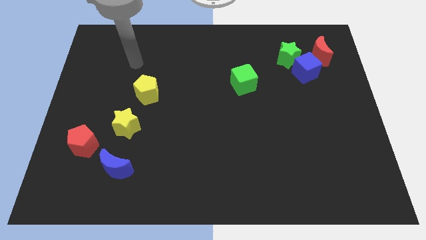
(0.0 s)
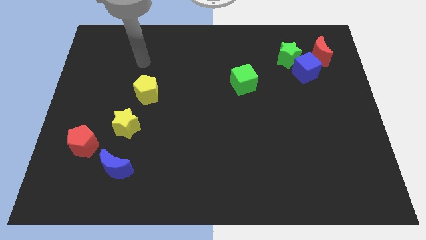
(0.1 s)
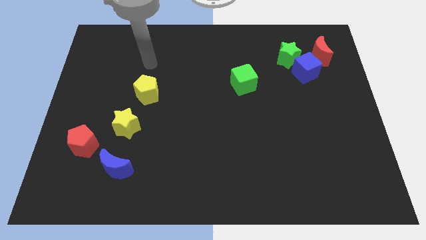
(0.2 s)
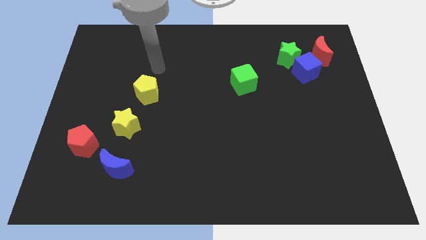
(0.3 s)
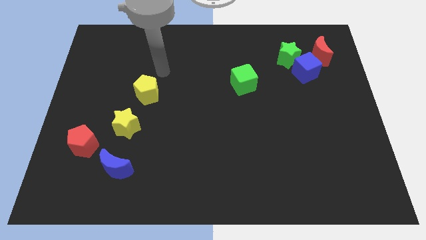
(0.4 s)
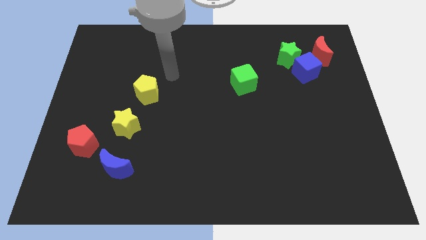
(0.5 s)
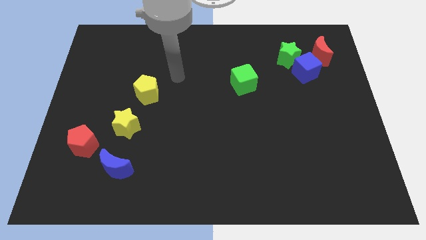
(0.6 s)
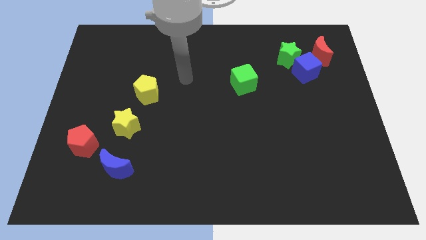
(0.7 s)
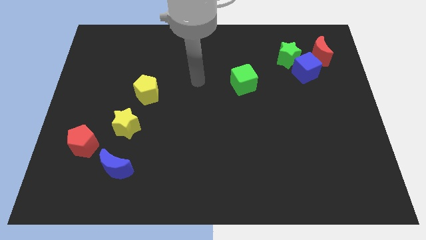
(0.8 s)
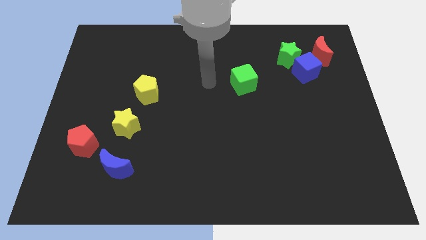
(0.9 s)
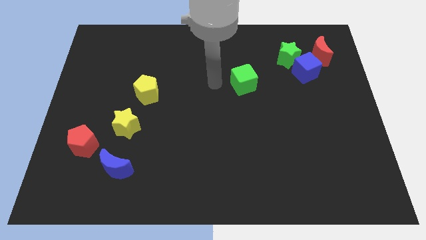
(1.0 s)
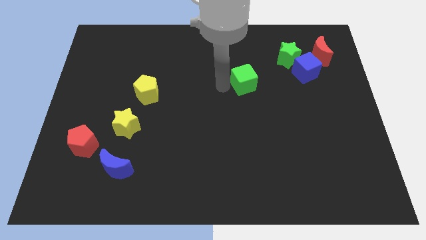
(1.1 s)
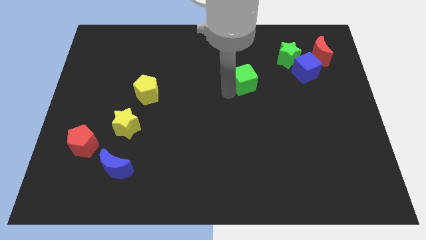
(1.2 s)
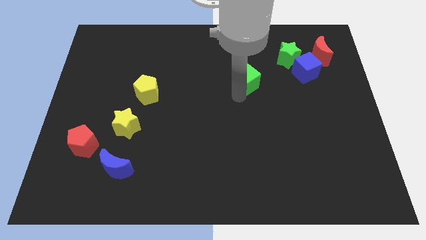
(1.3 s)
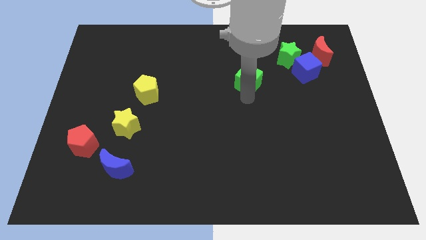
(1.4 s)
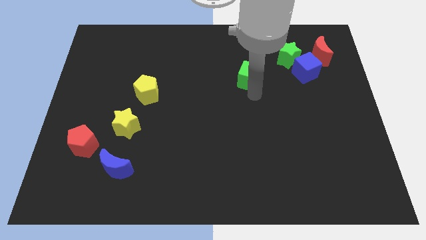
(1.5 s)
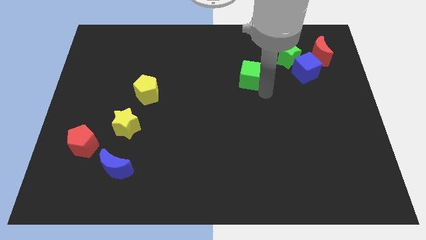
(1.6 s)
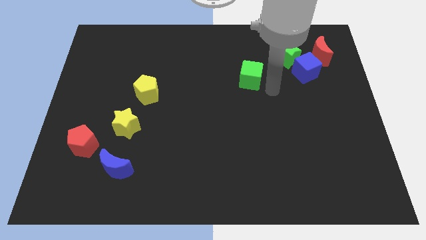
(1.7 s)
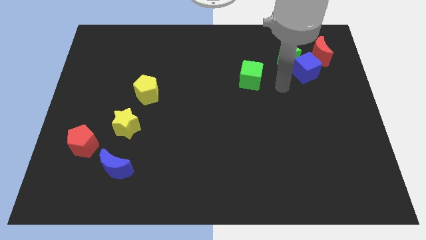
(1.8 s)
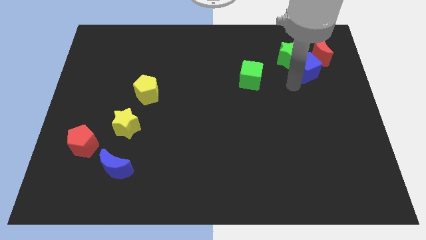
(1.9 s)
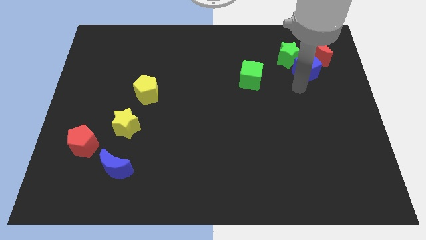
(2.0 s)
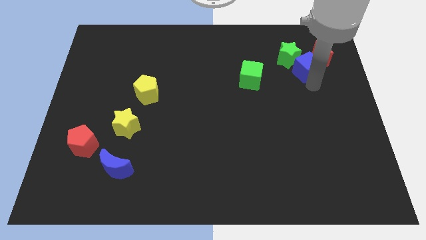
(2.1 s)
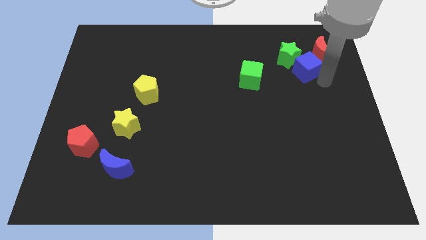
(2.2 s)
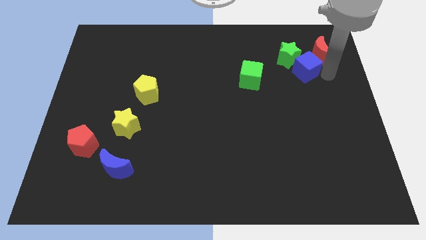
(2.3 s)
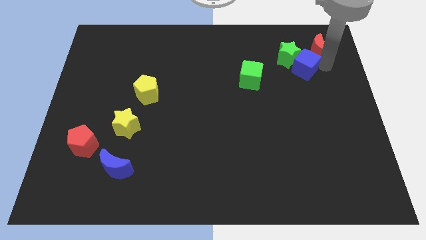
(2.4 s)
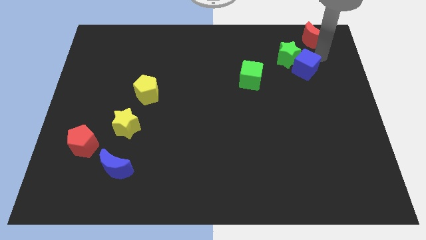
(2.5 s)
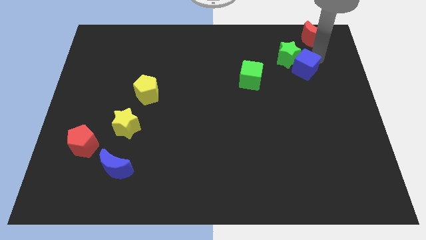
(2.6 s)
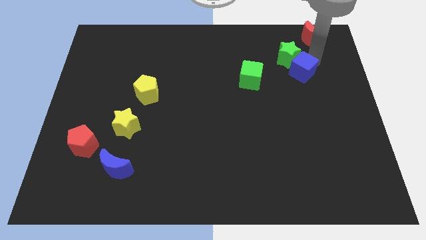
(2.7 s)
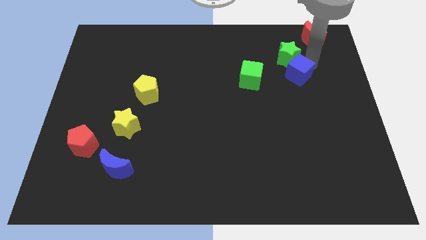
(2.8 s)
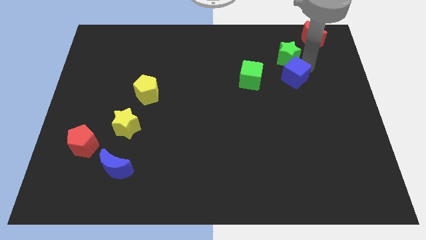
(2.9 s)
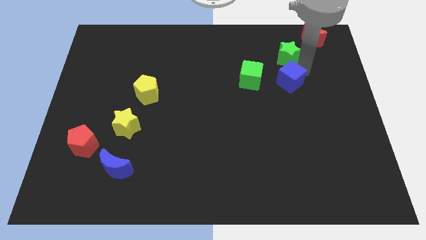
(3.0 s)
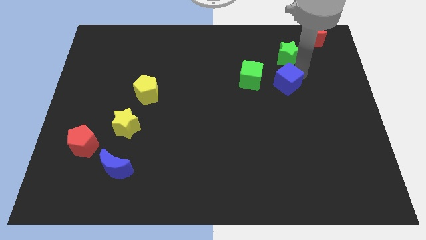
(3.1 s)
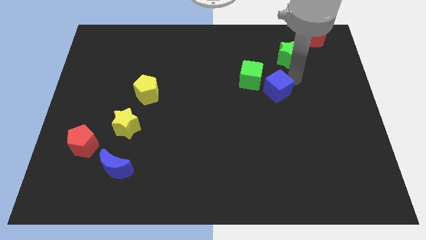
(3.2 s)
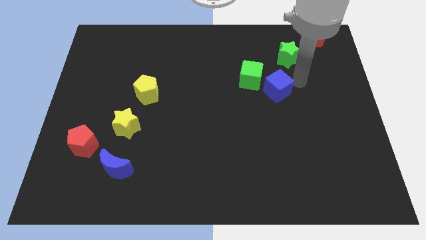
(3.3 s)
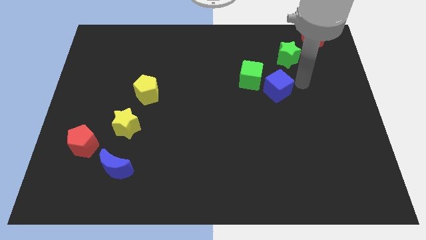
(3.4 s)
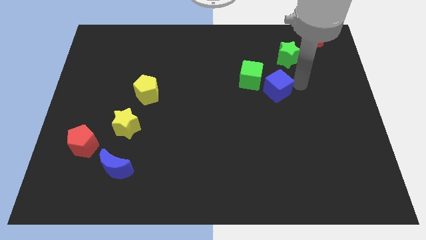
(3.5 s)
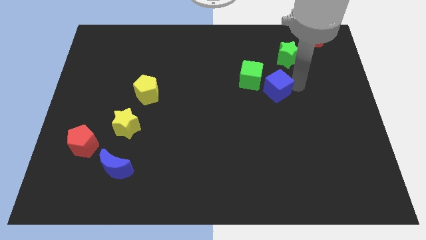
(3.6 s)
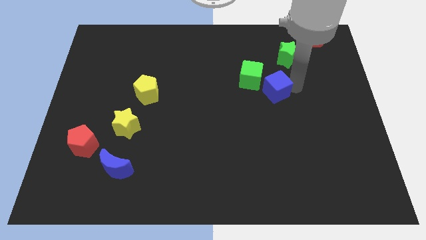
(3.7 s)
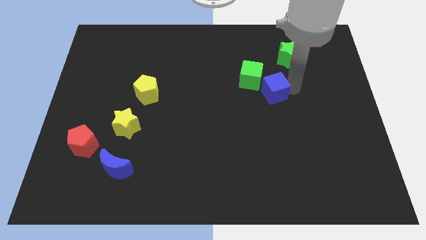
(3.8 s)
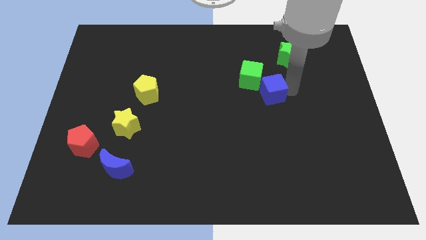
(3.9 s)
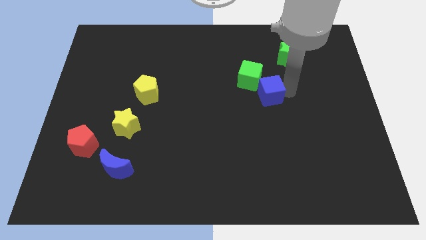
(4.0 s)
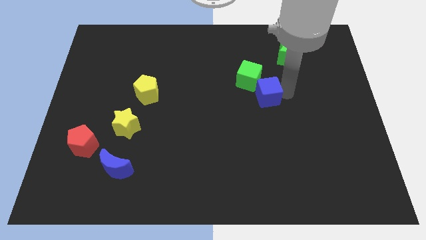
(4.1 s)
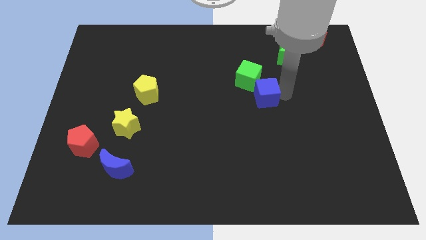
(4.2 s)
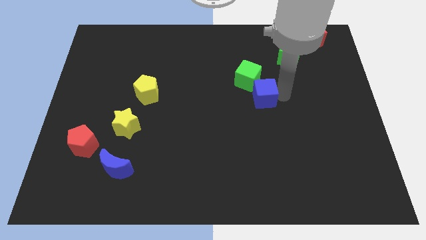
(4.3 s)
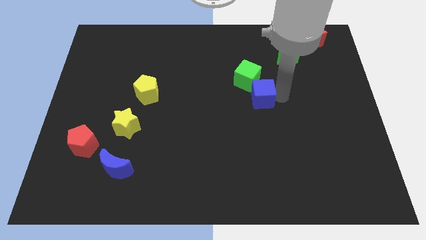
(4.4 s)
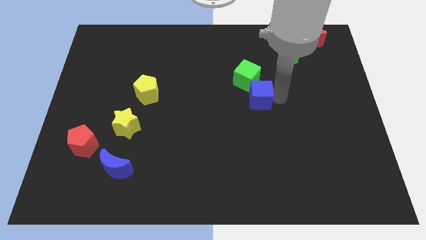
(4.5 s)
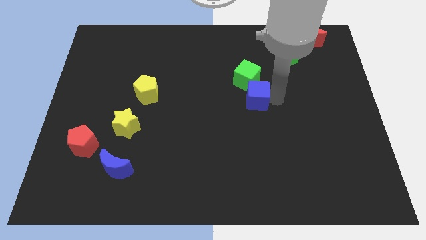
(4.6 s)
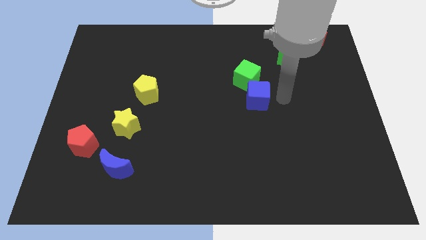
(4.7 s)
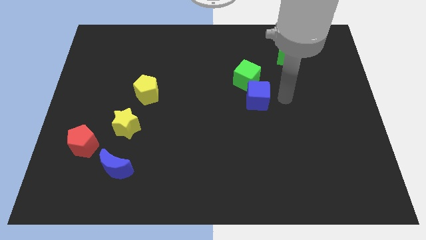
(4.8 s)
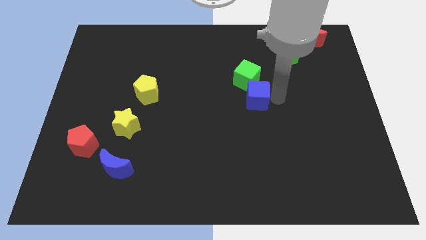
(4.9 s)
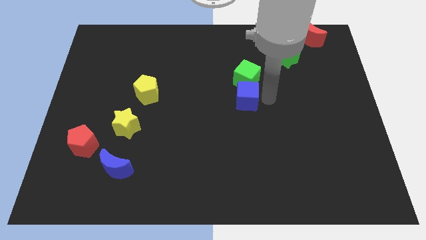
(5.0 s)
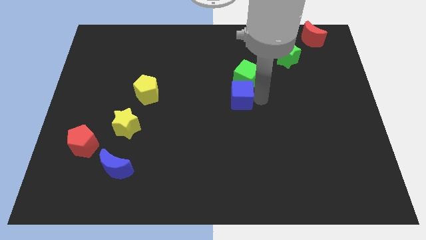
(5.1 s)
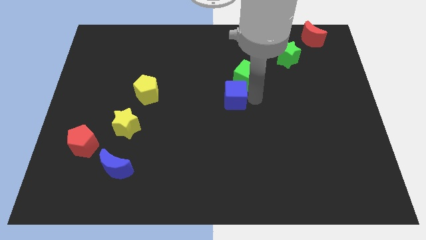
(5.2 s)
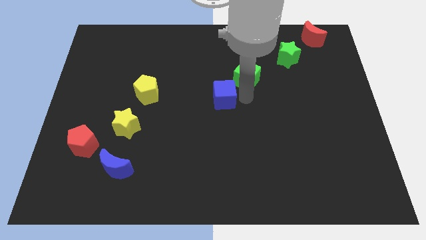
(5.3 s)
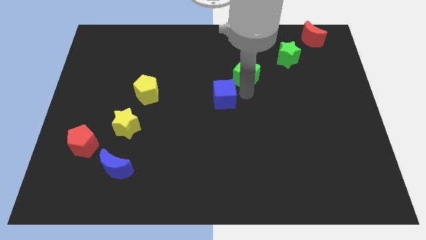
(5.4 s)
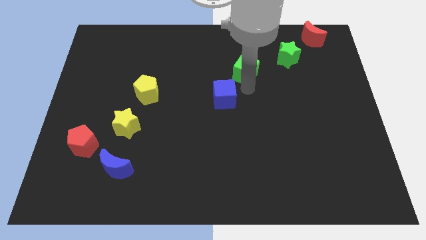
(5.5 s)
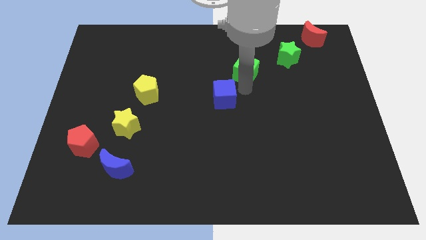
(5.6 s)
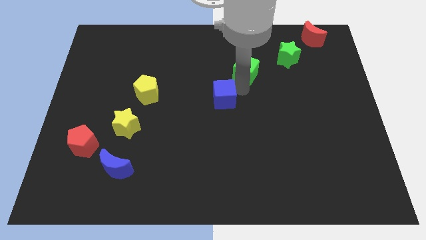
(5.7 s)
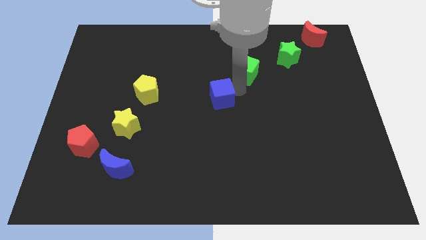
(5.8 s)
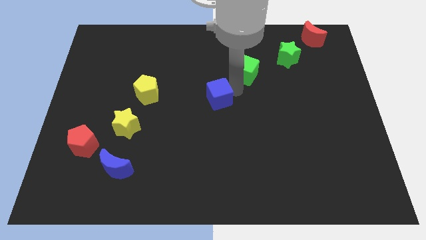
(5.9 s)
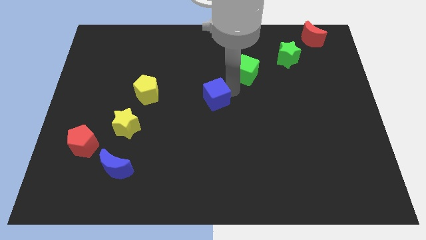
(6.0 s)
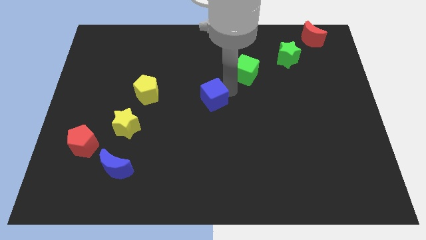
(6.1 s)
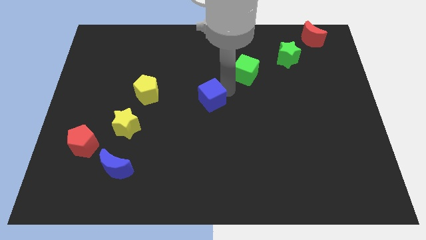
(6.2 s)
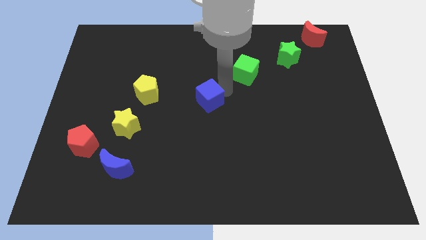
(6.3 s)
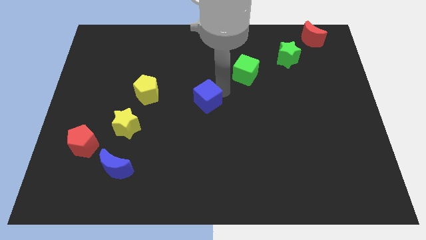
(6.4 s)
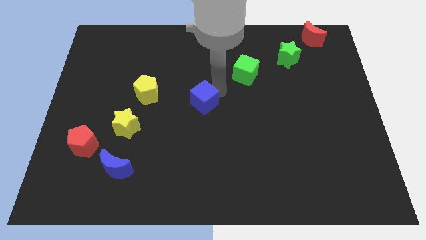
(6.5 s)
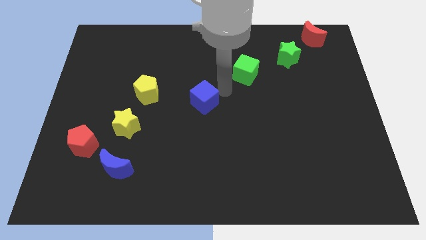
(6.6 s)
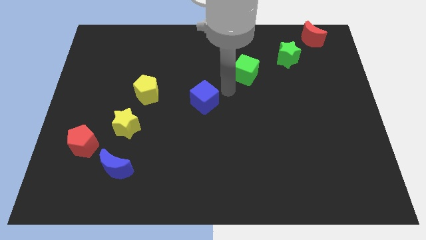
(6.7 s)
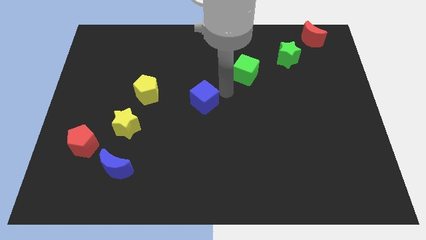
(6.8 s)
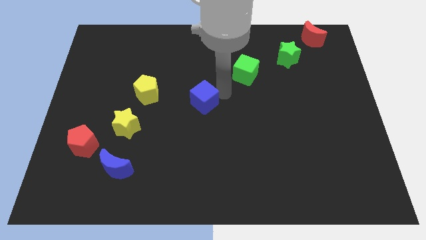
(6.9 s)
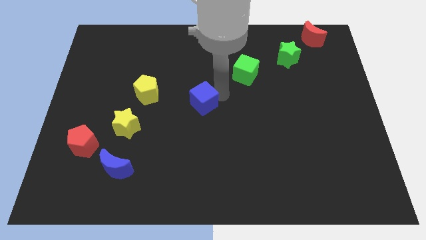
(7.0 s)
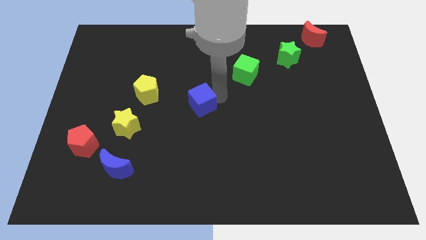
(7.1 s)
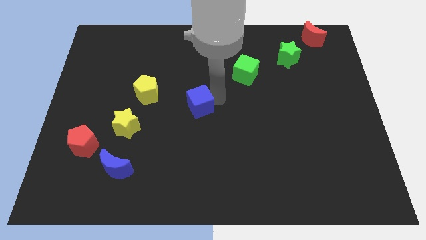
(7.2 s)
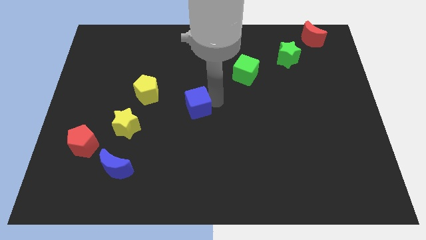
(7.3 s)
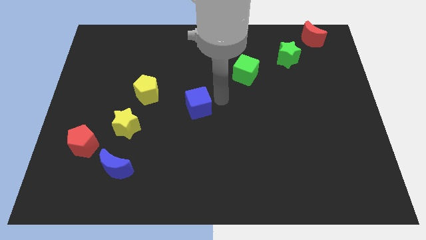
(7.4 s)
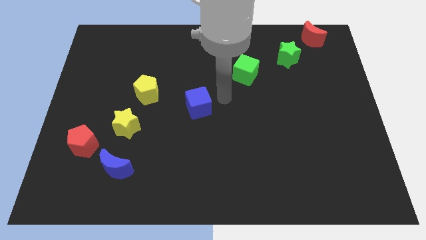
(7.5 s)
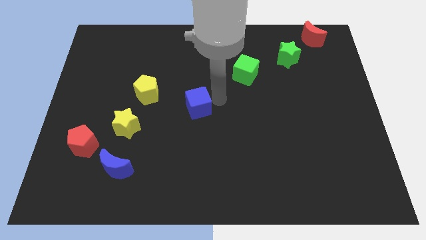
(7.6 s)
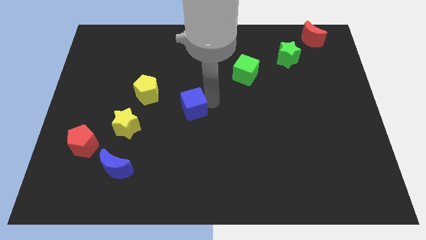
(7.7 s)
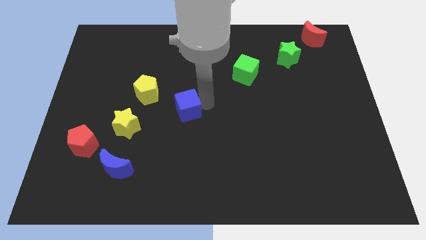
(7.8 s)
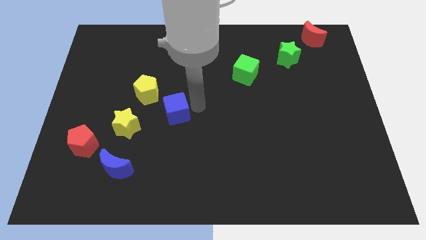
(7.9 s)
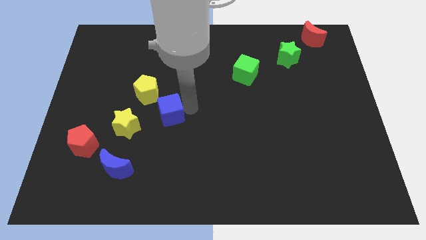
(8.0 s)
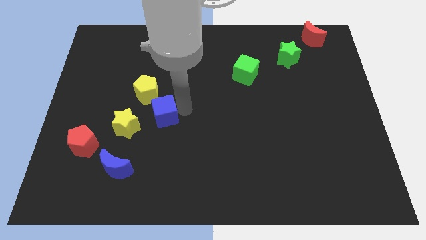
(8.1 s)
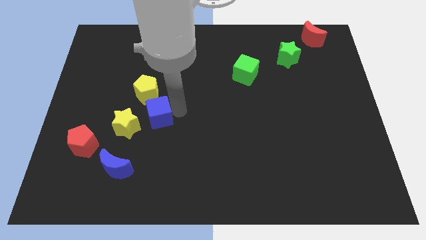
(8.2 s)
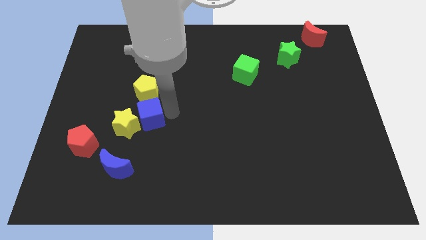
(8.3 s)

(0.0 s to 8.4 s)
push the blue cube to the yellow star
